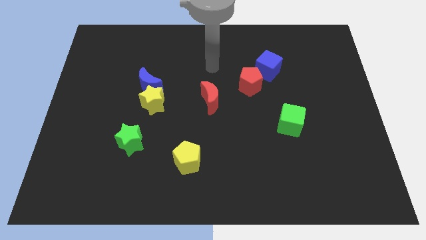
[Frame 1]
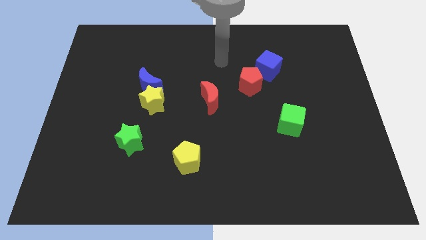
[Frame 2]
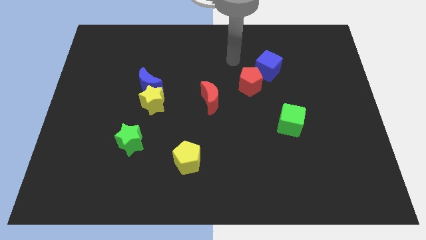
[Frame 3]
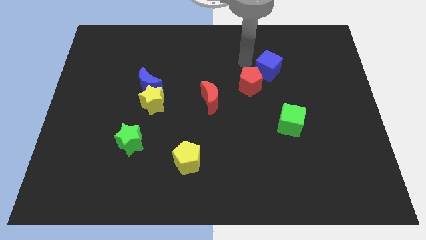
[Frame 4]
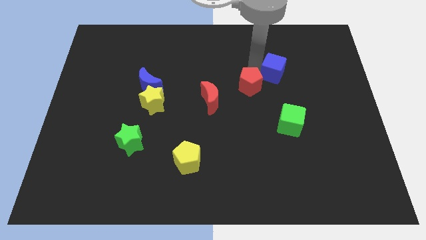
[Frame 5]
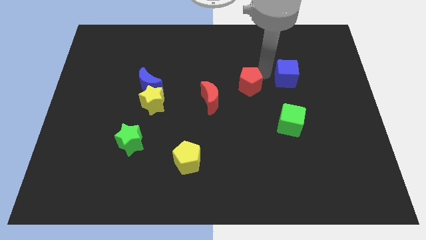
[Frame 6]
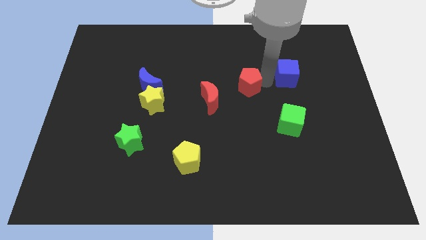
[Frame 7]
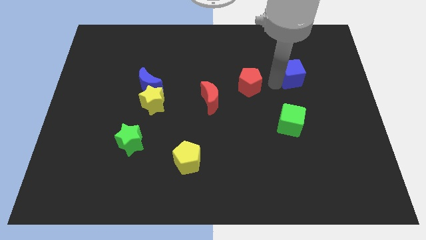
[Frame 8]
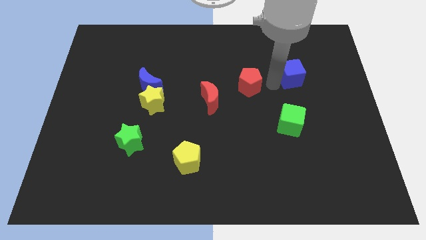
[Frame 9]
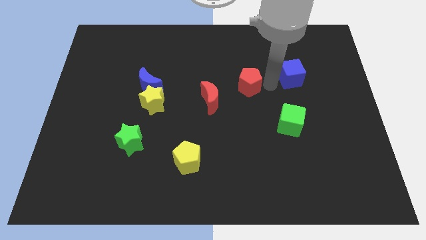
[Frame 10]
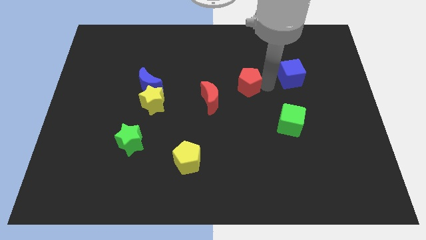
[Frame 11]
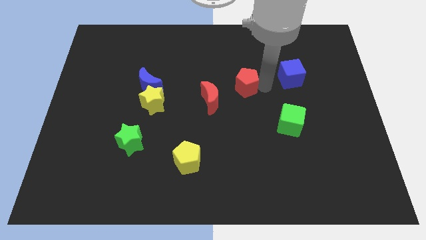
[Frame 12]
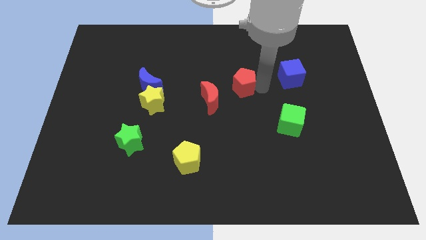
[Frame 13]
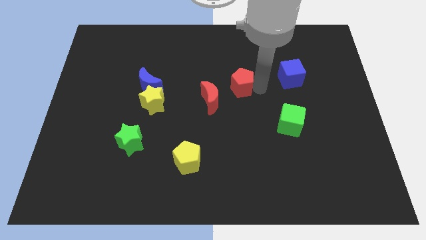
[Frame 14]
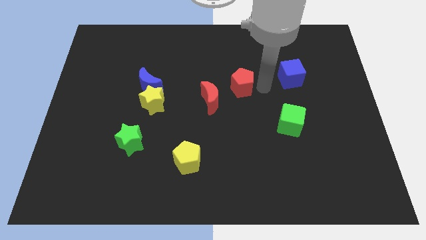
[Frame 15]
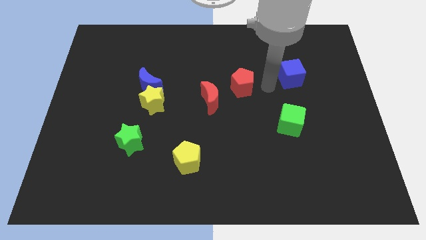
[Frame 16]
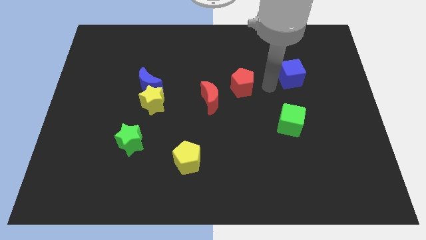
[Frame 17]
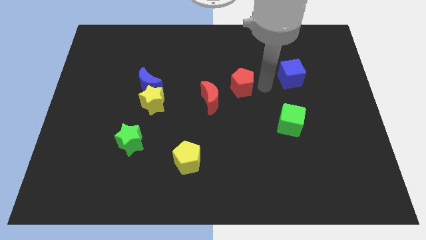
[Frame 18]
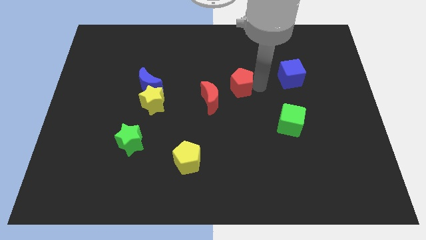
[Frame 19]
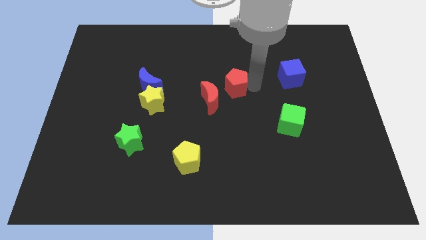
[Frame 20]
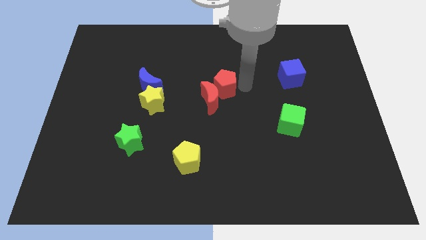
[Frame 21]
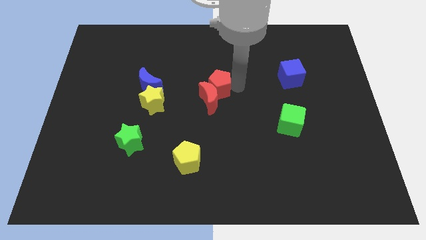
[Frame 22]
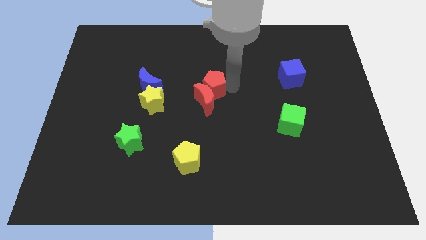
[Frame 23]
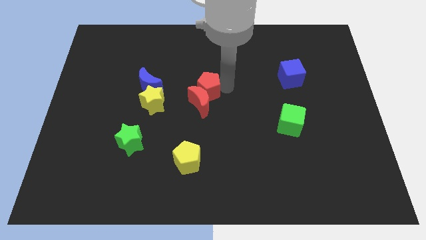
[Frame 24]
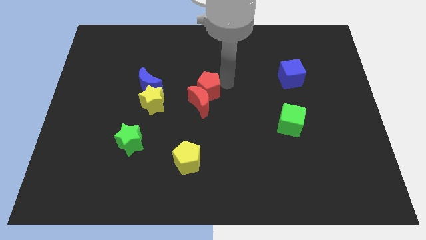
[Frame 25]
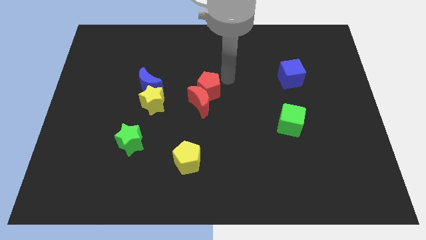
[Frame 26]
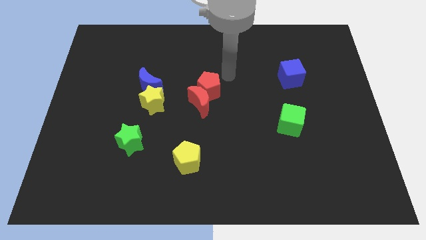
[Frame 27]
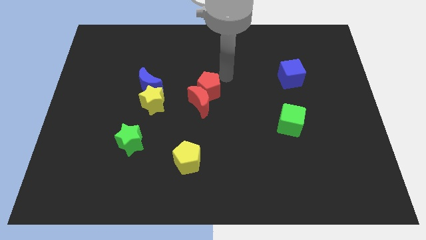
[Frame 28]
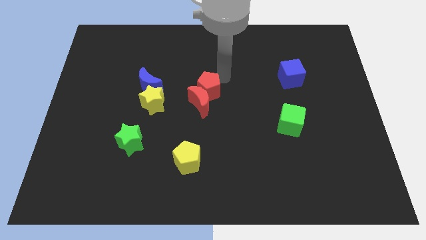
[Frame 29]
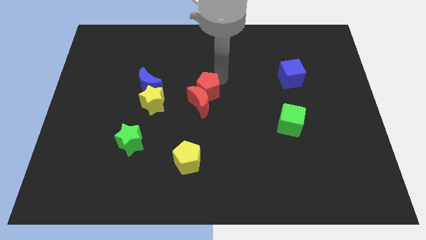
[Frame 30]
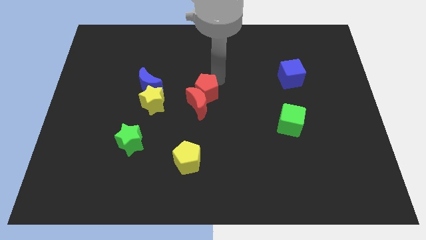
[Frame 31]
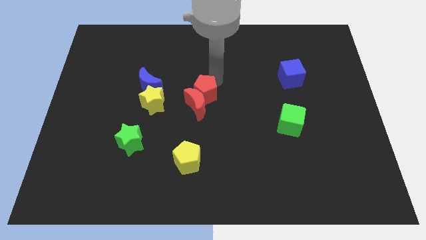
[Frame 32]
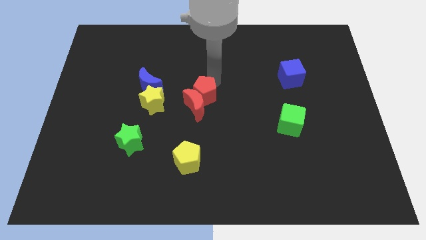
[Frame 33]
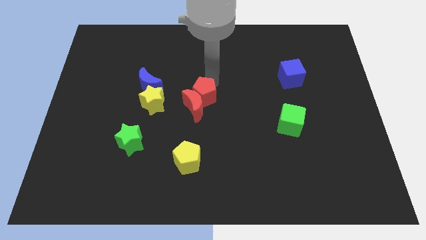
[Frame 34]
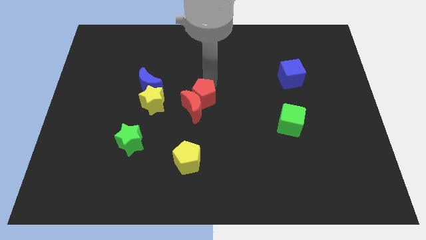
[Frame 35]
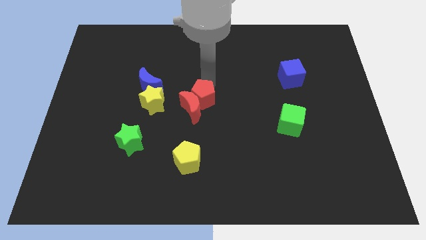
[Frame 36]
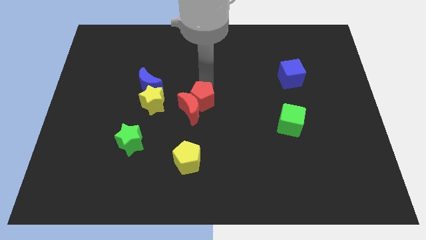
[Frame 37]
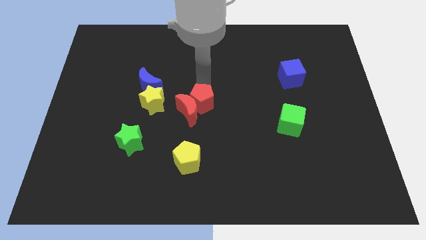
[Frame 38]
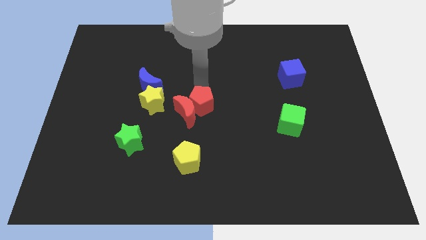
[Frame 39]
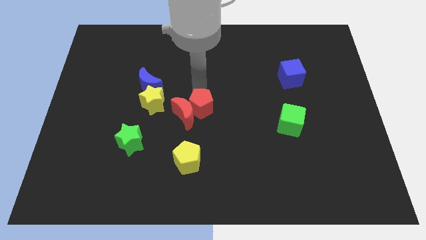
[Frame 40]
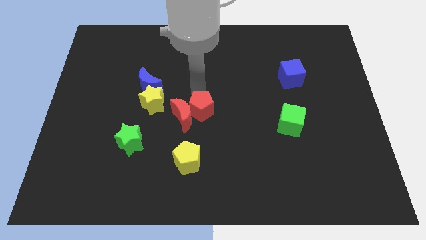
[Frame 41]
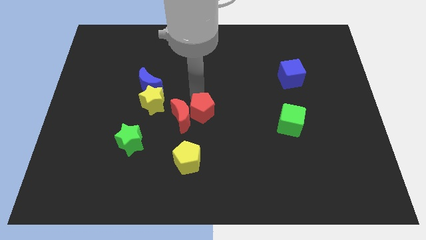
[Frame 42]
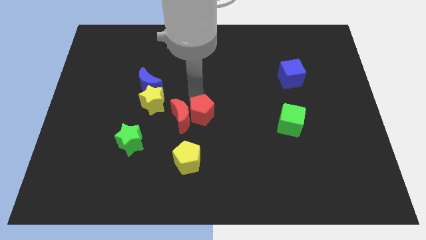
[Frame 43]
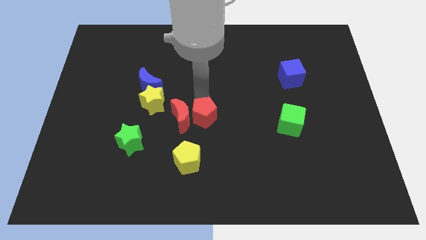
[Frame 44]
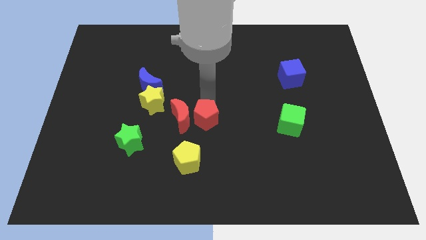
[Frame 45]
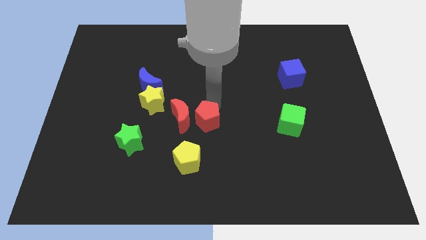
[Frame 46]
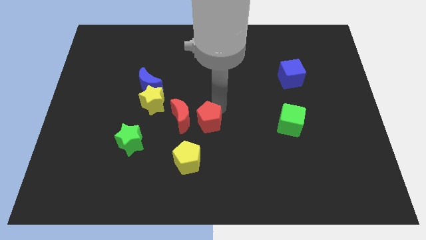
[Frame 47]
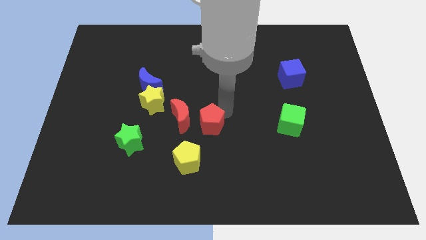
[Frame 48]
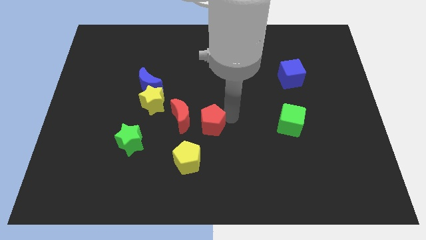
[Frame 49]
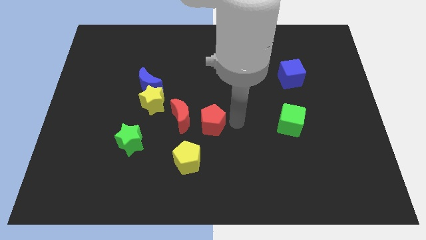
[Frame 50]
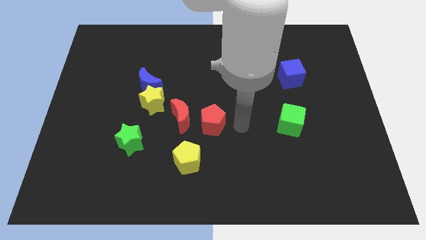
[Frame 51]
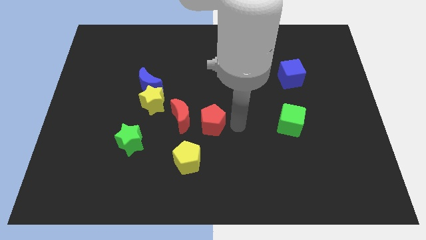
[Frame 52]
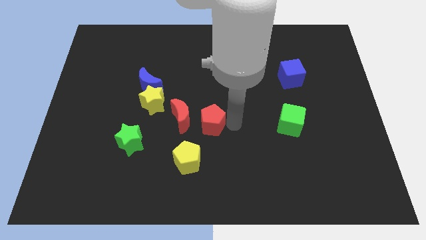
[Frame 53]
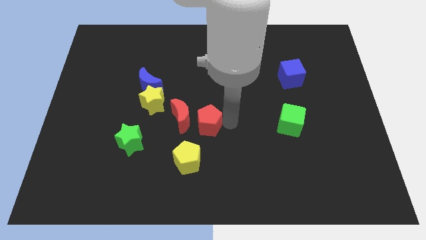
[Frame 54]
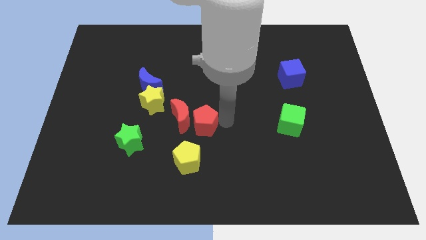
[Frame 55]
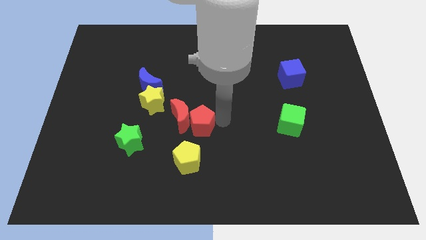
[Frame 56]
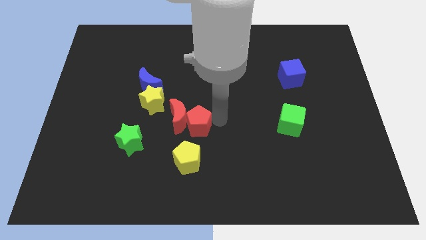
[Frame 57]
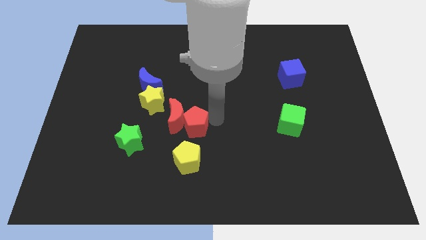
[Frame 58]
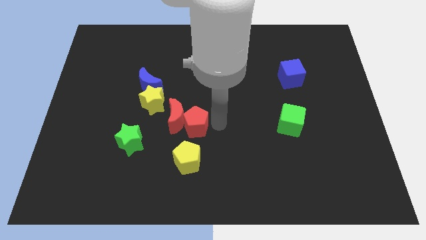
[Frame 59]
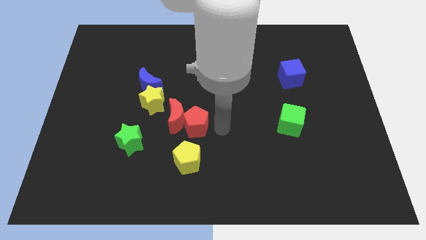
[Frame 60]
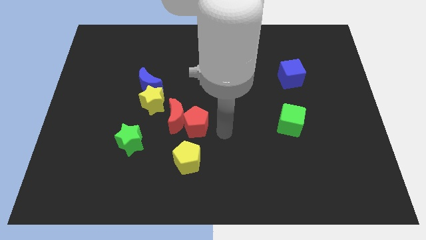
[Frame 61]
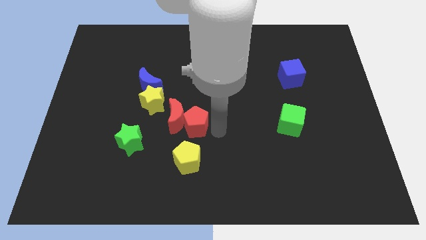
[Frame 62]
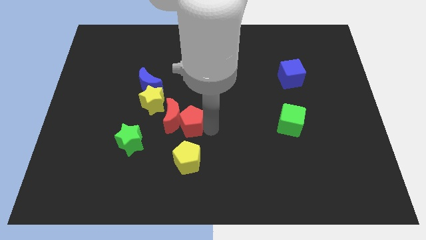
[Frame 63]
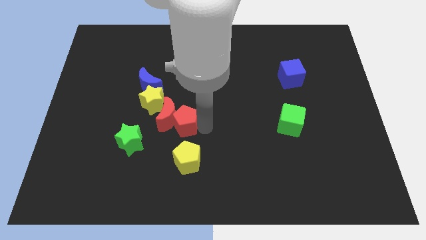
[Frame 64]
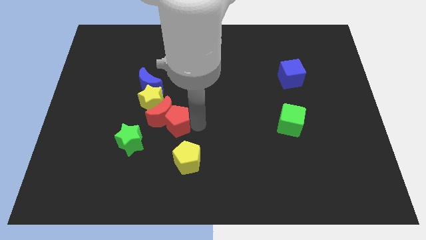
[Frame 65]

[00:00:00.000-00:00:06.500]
move the red pentagon down and to the left diagonally

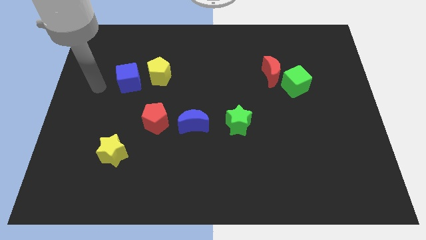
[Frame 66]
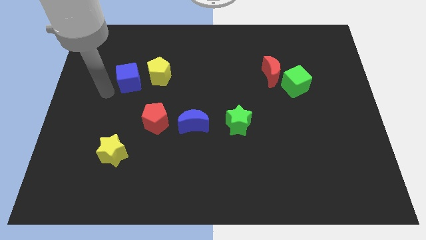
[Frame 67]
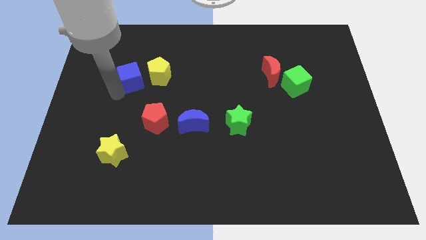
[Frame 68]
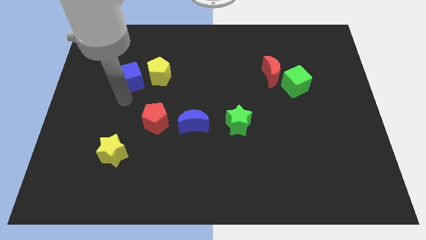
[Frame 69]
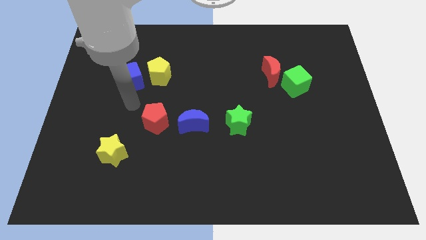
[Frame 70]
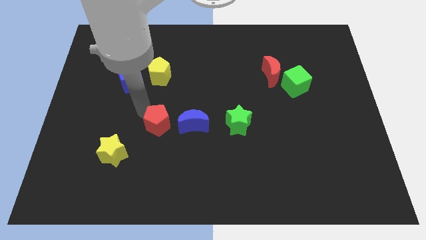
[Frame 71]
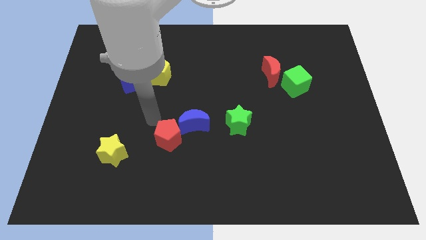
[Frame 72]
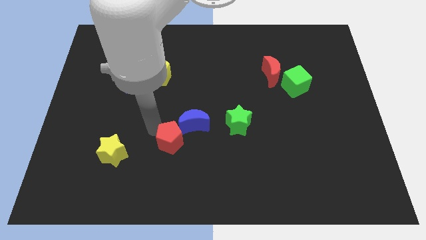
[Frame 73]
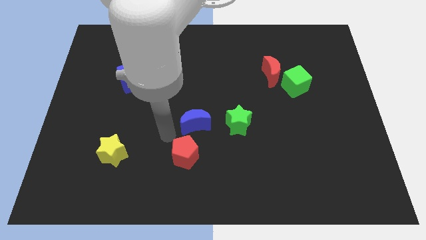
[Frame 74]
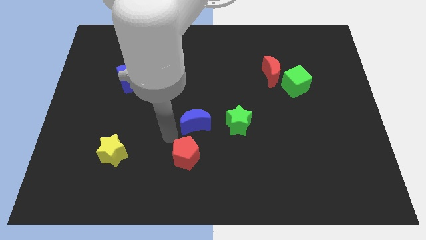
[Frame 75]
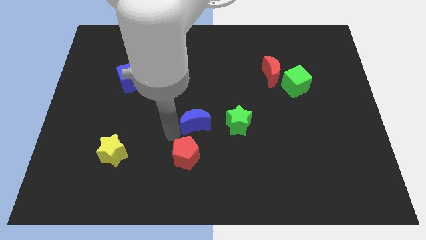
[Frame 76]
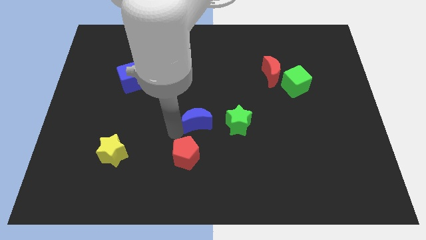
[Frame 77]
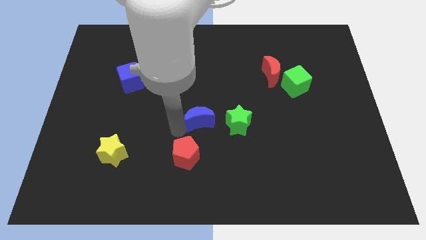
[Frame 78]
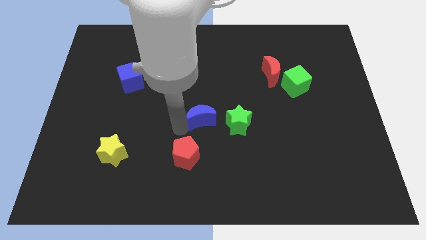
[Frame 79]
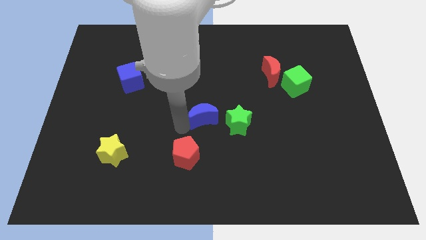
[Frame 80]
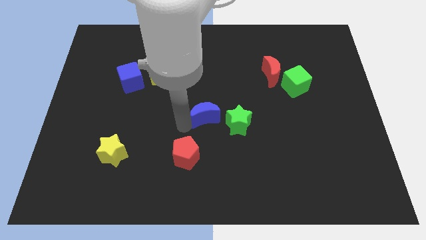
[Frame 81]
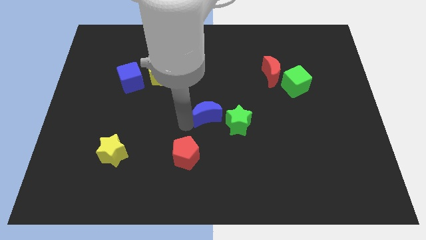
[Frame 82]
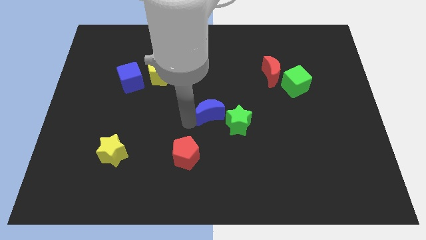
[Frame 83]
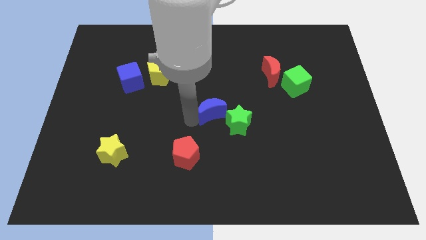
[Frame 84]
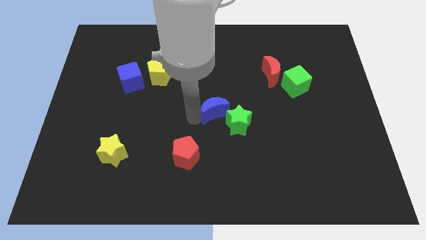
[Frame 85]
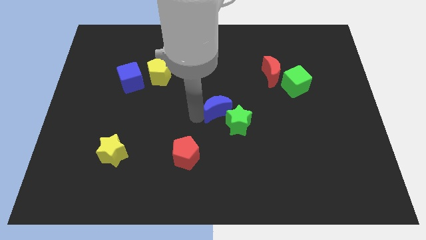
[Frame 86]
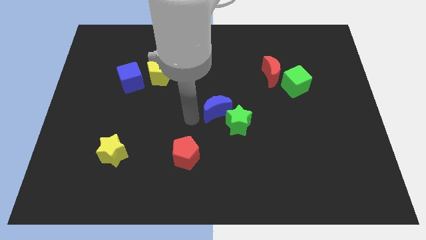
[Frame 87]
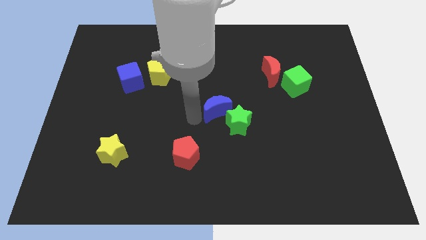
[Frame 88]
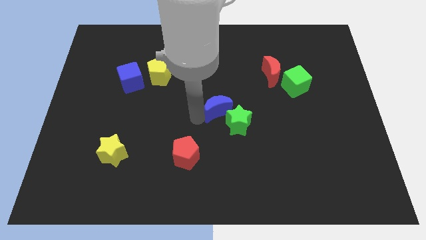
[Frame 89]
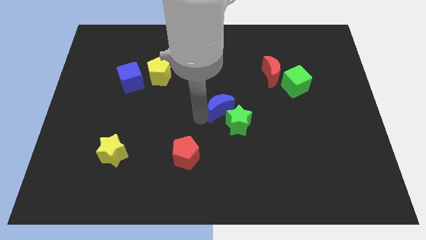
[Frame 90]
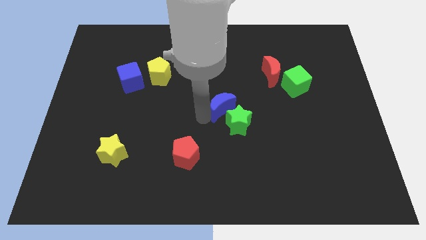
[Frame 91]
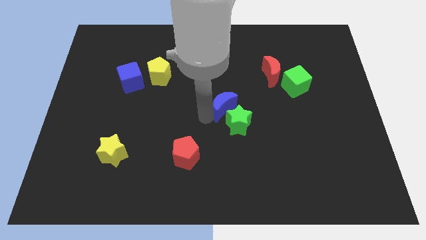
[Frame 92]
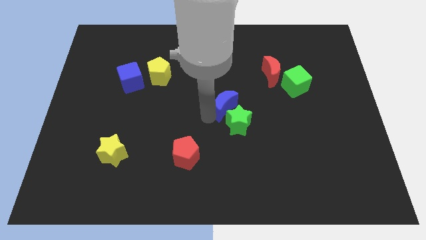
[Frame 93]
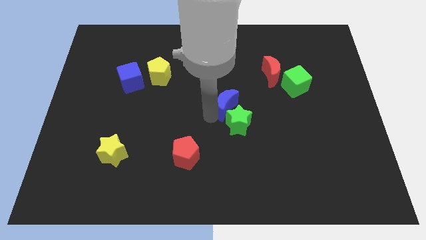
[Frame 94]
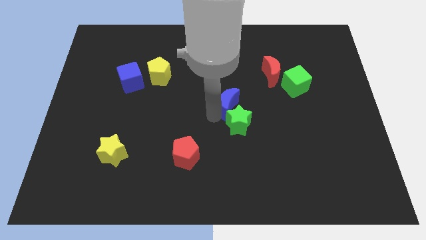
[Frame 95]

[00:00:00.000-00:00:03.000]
move the blue moon right a little
